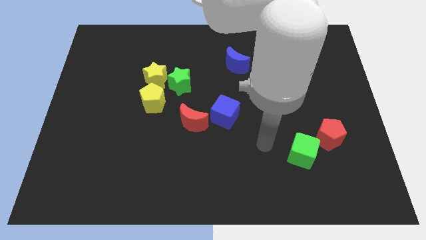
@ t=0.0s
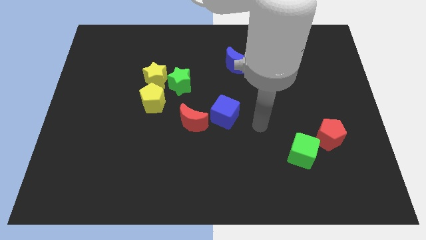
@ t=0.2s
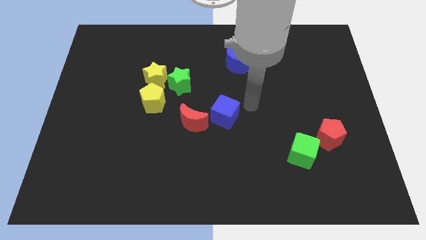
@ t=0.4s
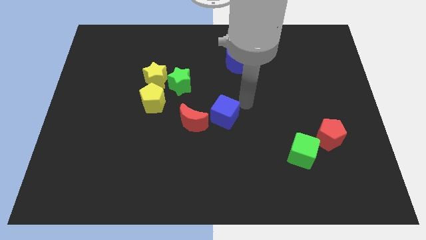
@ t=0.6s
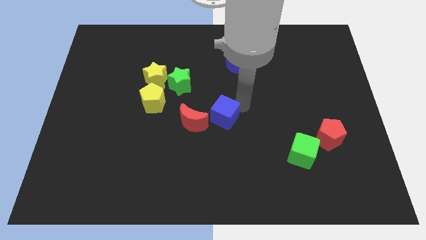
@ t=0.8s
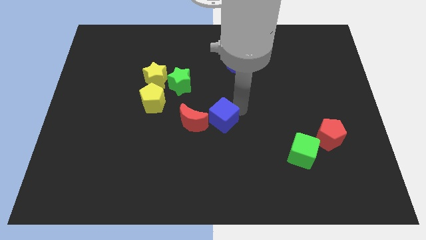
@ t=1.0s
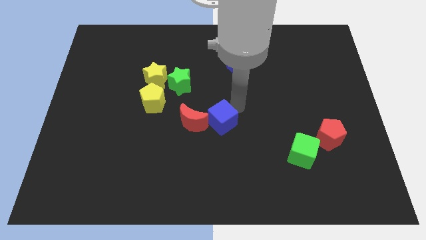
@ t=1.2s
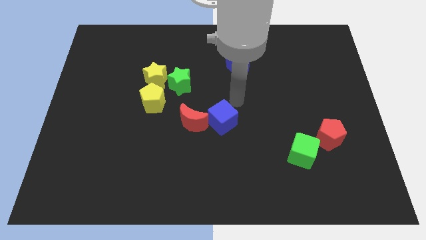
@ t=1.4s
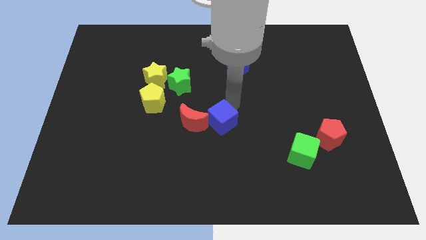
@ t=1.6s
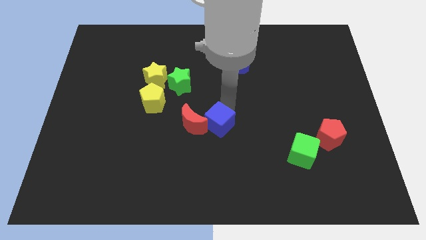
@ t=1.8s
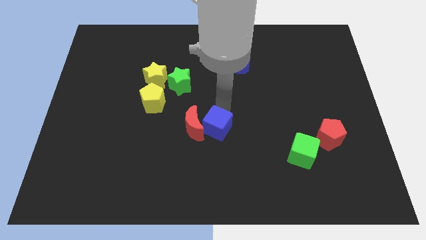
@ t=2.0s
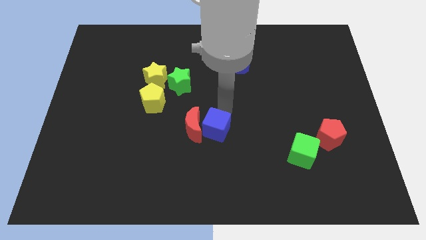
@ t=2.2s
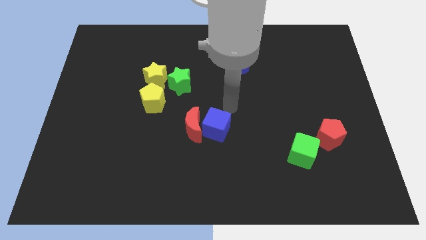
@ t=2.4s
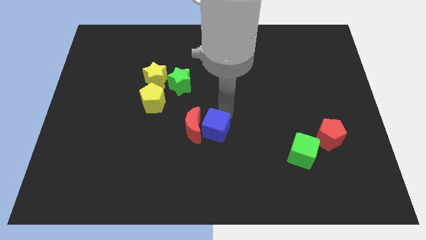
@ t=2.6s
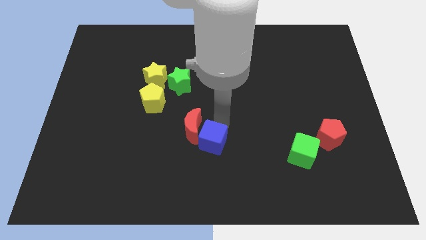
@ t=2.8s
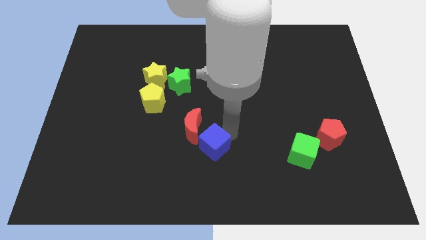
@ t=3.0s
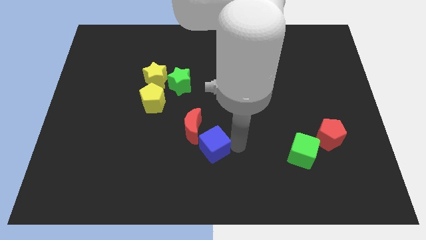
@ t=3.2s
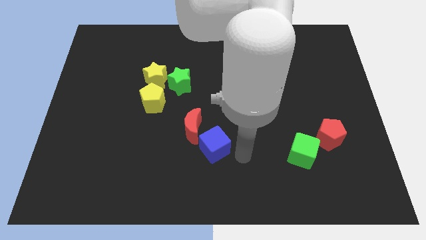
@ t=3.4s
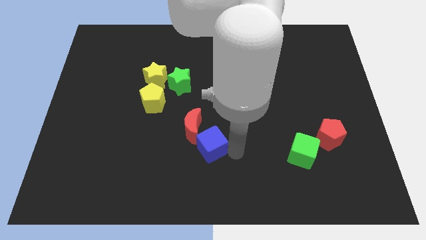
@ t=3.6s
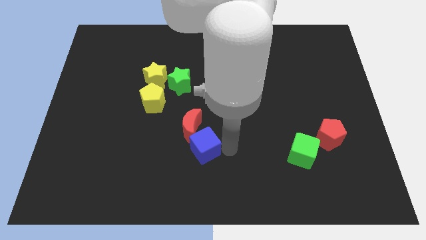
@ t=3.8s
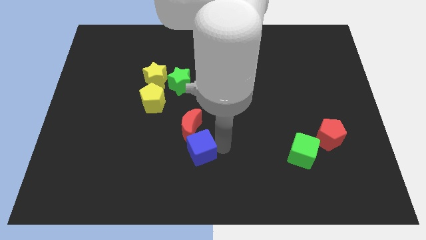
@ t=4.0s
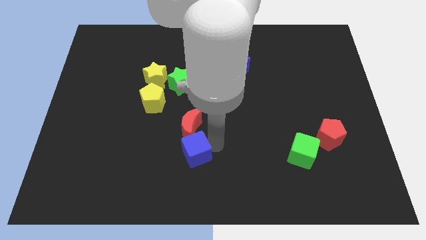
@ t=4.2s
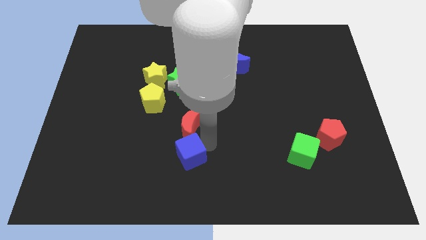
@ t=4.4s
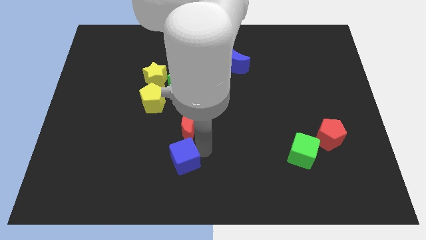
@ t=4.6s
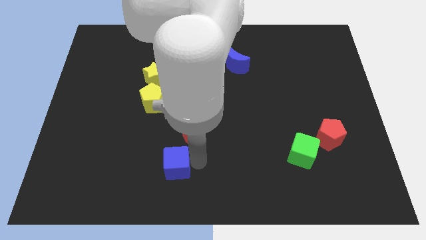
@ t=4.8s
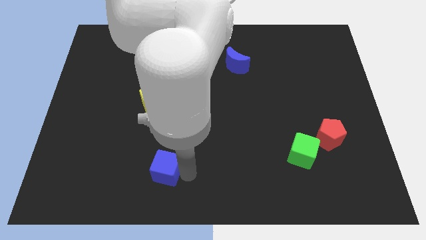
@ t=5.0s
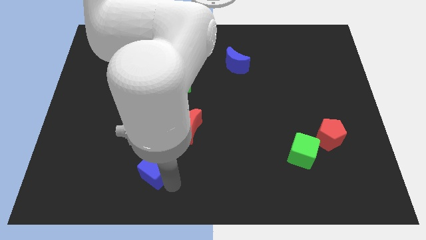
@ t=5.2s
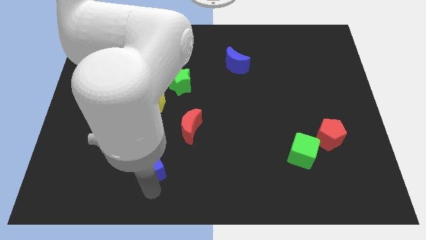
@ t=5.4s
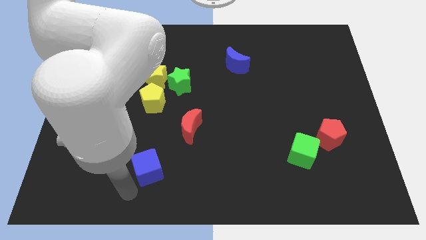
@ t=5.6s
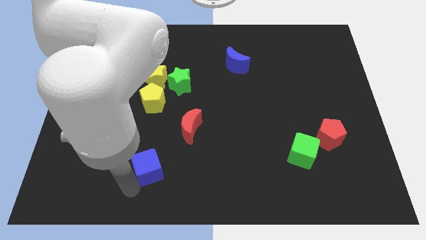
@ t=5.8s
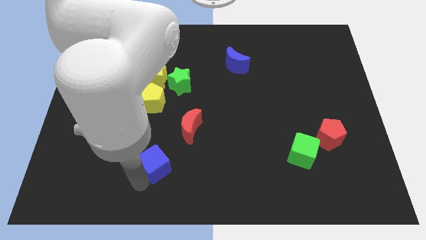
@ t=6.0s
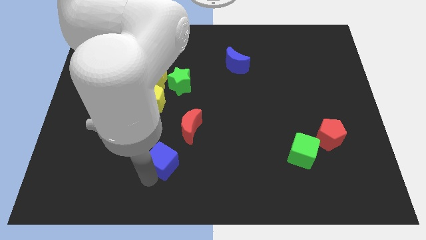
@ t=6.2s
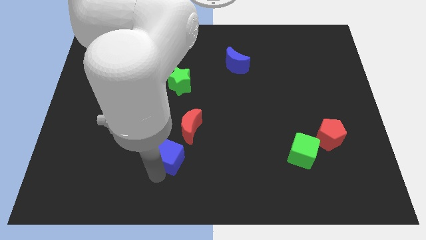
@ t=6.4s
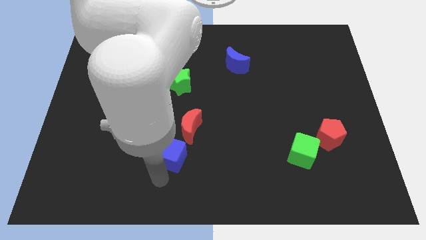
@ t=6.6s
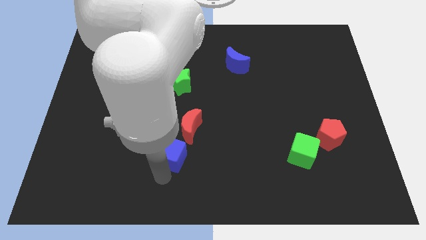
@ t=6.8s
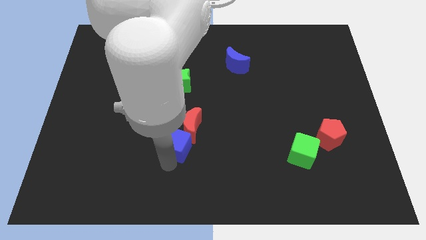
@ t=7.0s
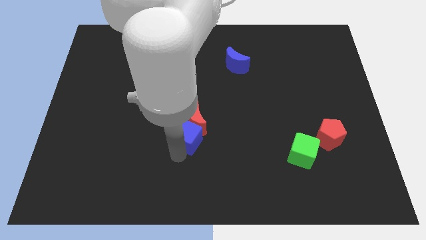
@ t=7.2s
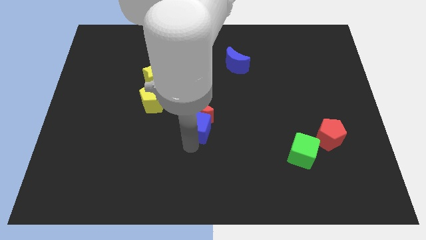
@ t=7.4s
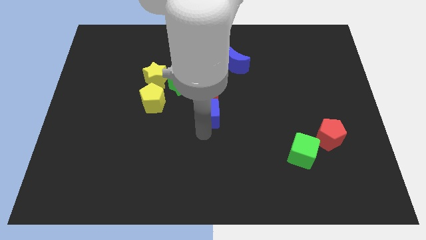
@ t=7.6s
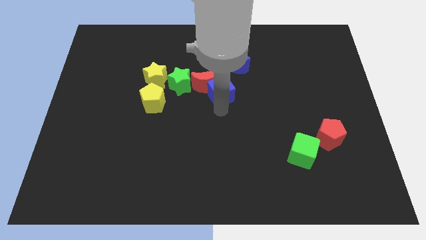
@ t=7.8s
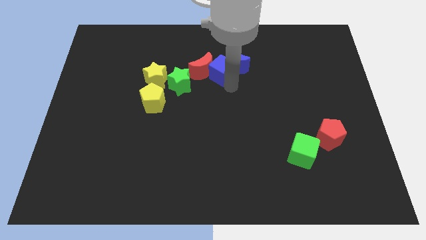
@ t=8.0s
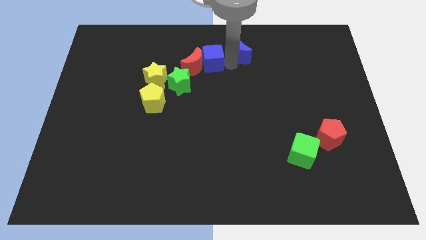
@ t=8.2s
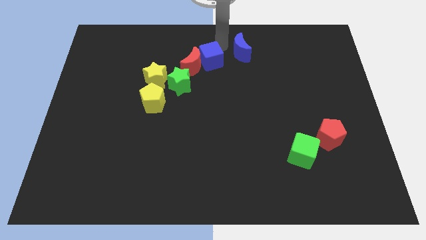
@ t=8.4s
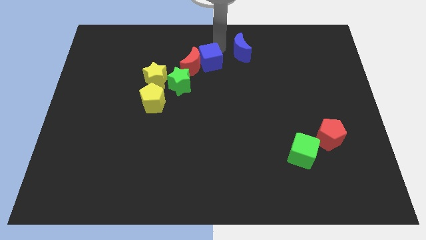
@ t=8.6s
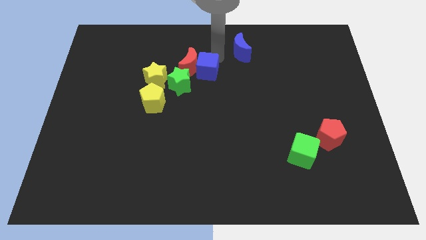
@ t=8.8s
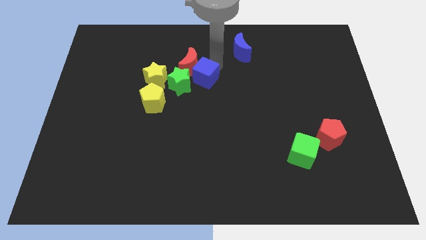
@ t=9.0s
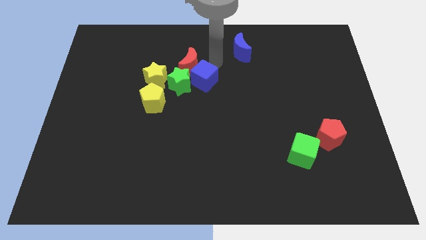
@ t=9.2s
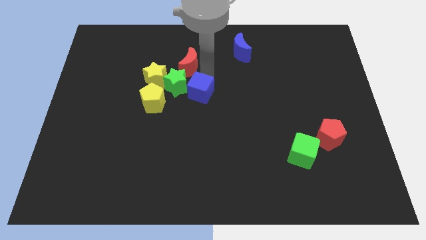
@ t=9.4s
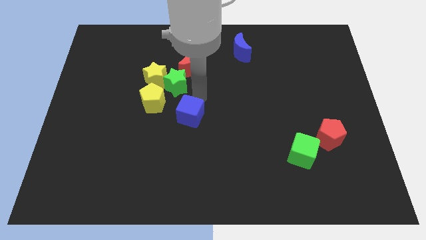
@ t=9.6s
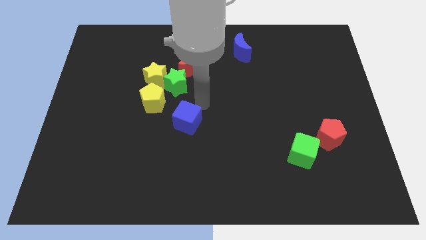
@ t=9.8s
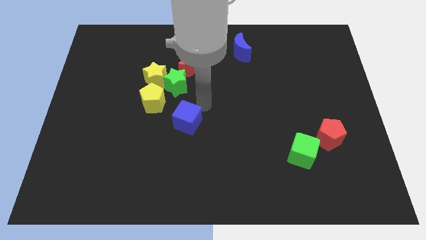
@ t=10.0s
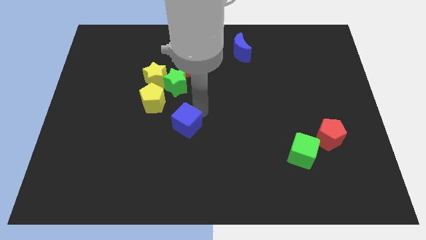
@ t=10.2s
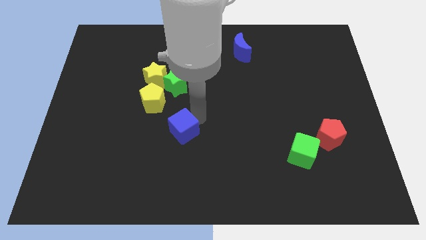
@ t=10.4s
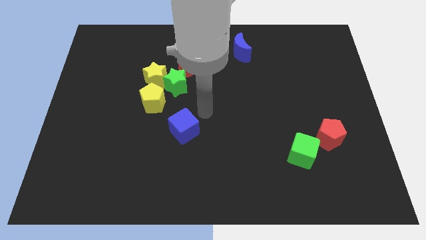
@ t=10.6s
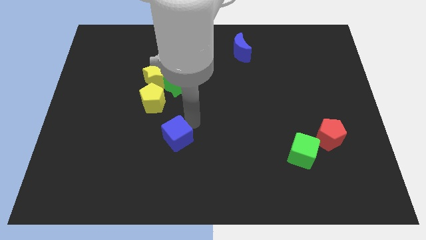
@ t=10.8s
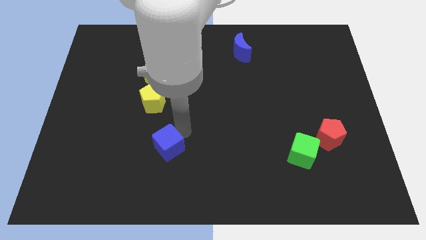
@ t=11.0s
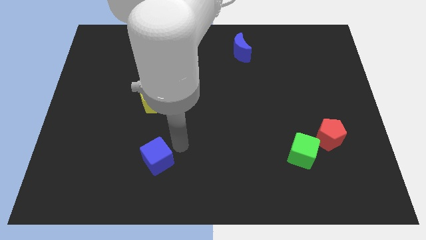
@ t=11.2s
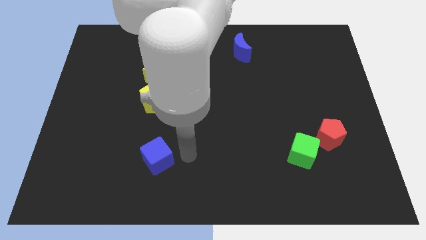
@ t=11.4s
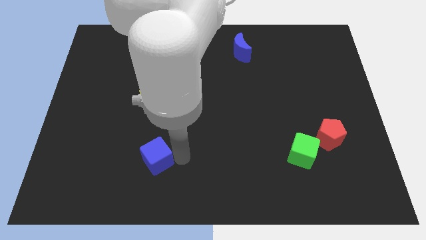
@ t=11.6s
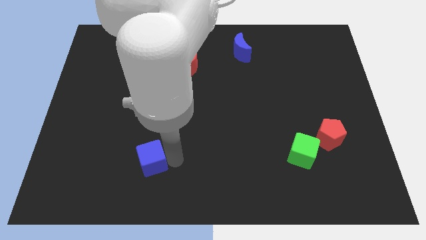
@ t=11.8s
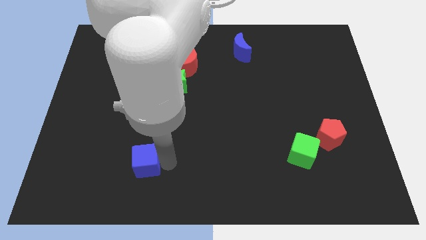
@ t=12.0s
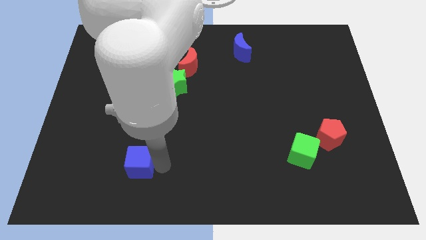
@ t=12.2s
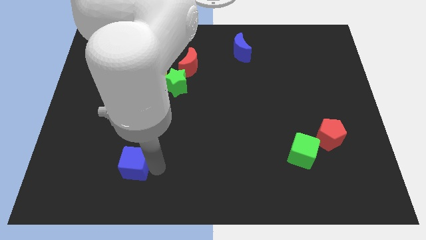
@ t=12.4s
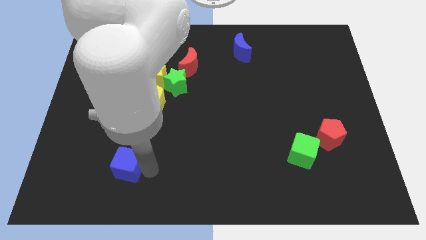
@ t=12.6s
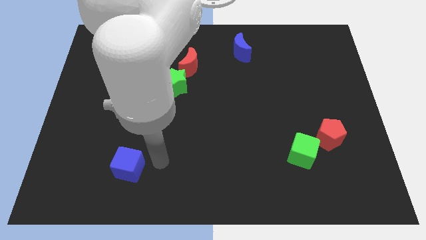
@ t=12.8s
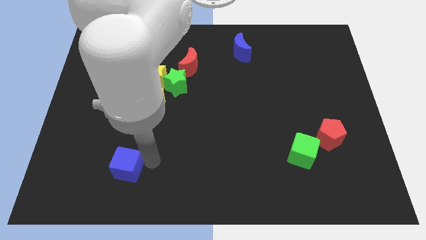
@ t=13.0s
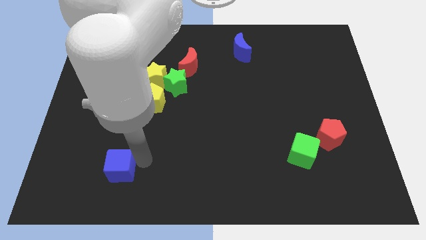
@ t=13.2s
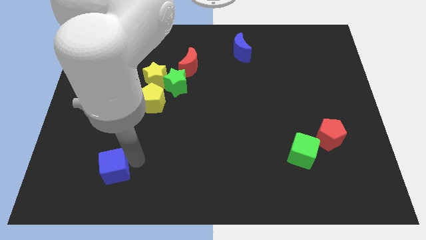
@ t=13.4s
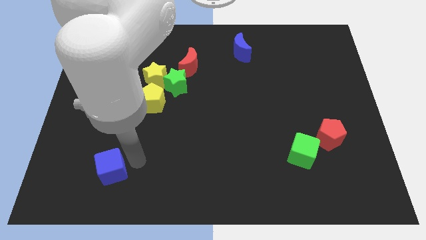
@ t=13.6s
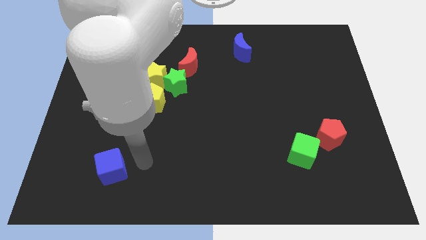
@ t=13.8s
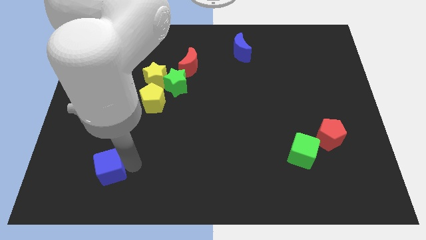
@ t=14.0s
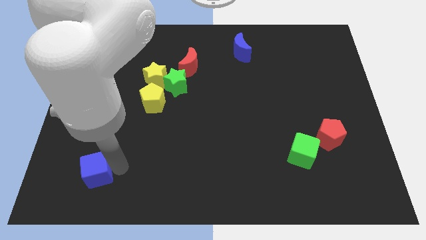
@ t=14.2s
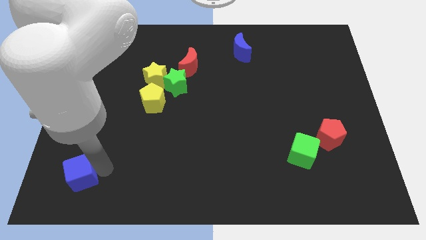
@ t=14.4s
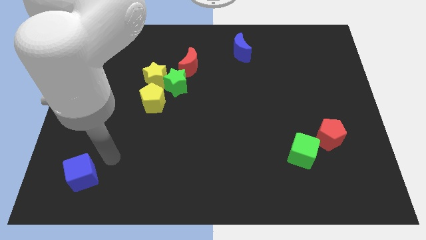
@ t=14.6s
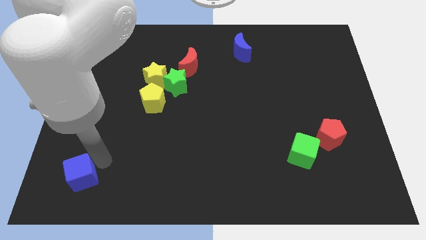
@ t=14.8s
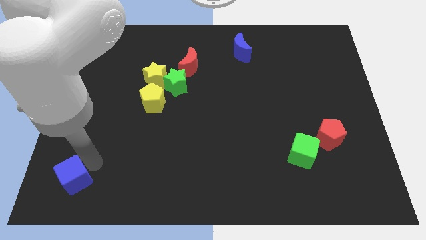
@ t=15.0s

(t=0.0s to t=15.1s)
put the blue cube to the bottom left of the board
